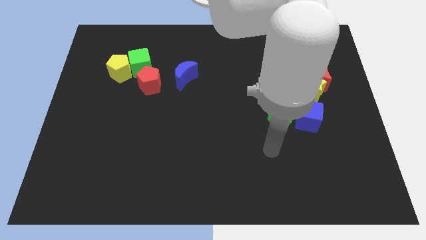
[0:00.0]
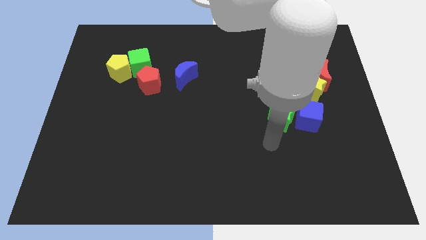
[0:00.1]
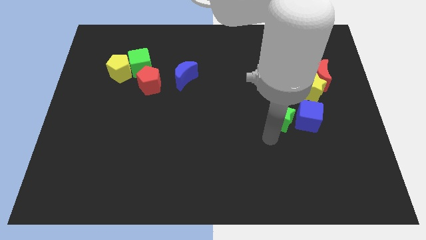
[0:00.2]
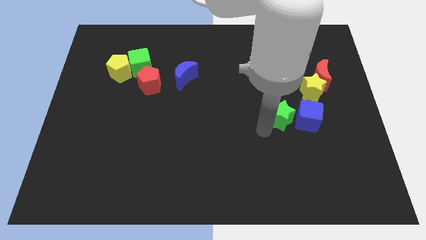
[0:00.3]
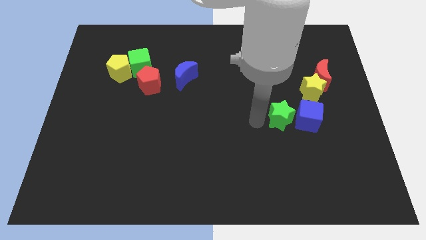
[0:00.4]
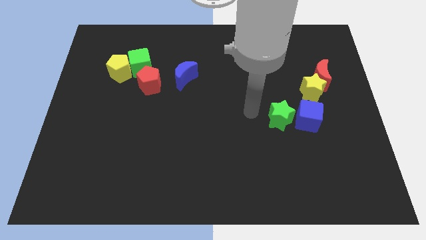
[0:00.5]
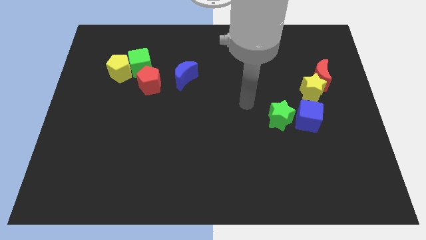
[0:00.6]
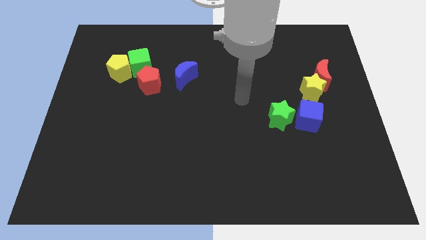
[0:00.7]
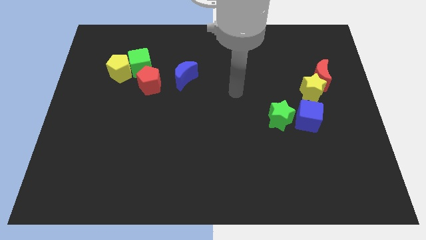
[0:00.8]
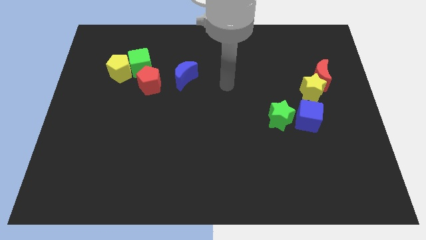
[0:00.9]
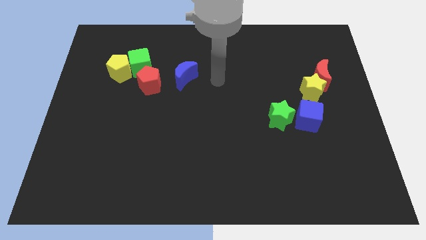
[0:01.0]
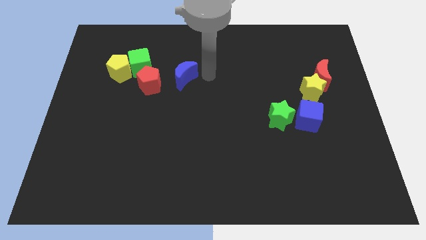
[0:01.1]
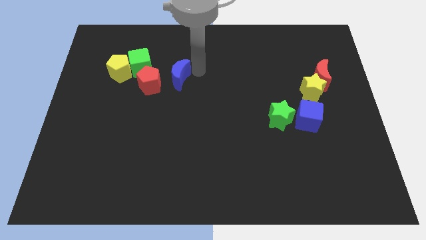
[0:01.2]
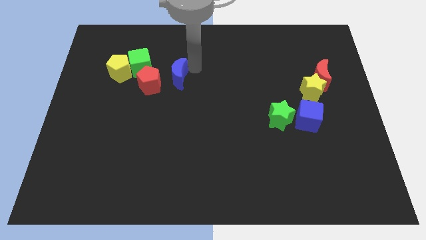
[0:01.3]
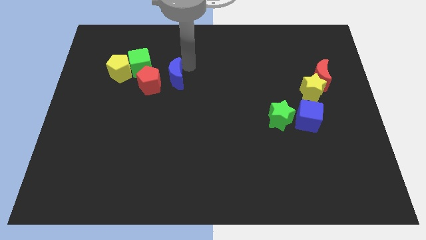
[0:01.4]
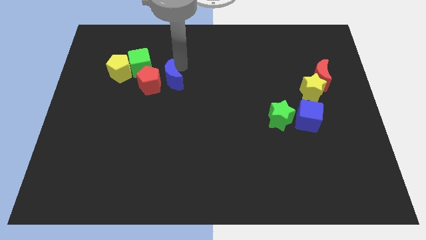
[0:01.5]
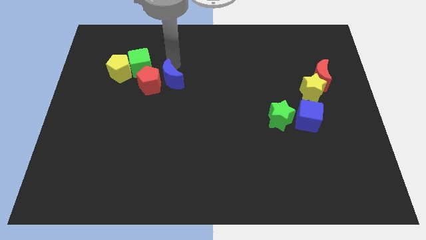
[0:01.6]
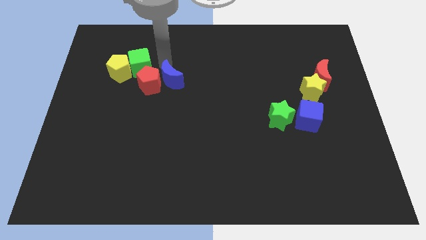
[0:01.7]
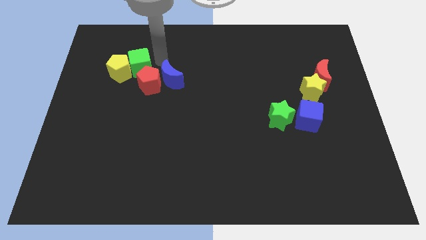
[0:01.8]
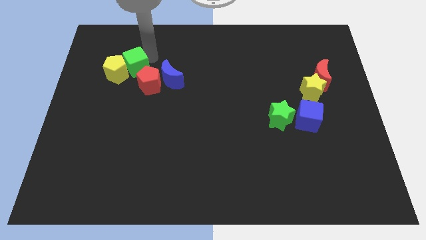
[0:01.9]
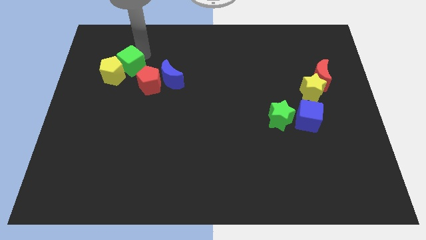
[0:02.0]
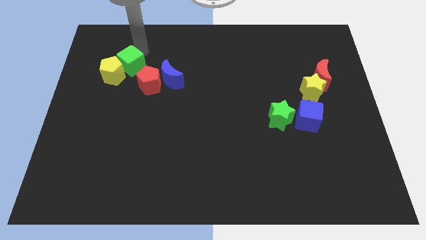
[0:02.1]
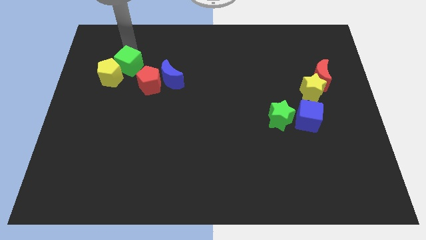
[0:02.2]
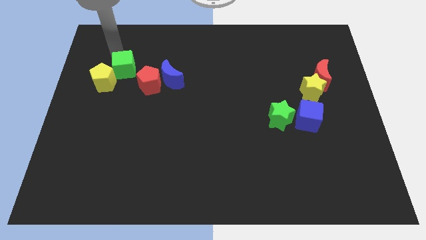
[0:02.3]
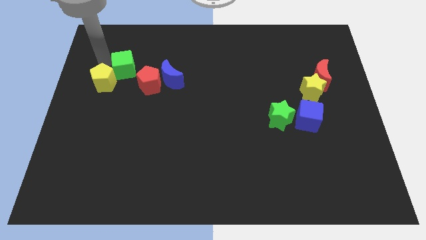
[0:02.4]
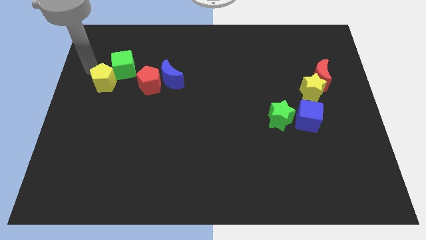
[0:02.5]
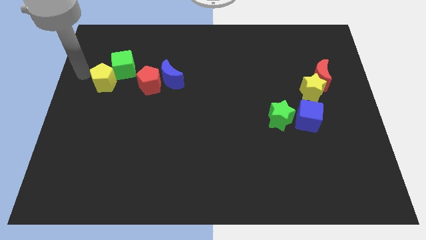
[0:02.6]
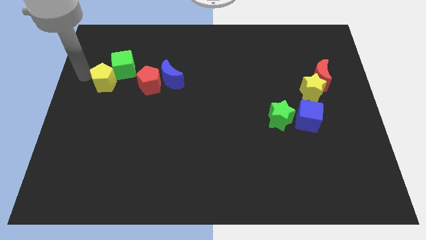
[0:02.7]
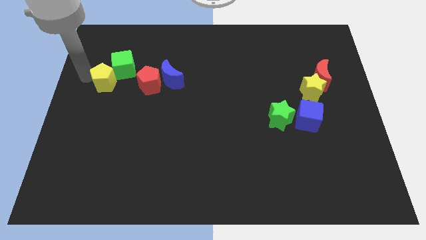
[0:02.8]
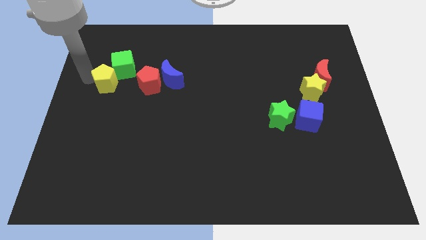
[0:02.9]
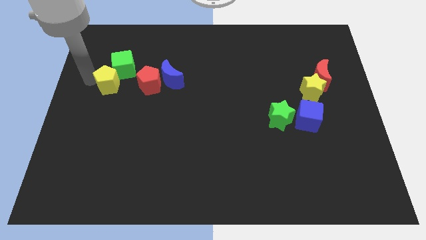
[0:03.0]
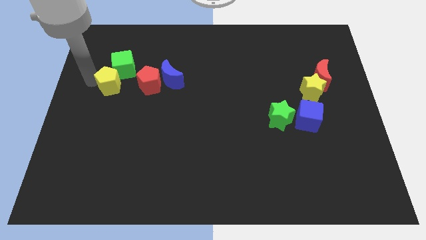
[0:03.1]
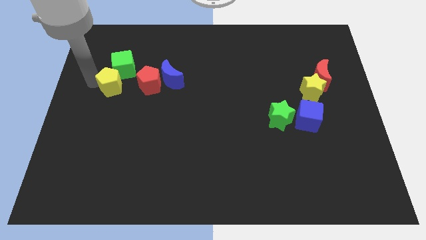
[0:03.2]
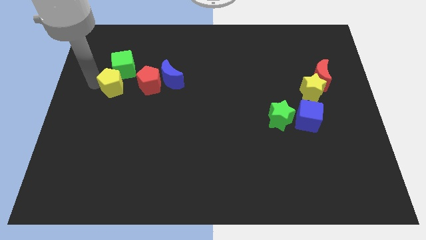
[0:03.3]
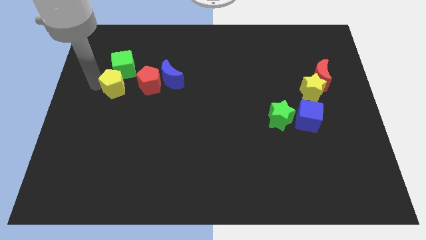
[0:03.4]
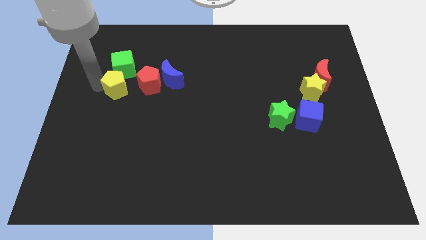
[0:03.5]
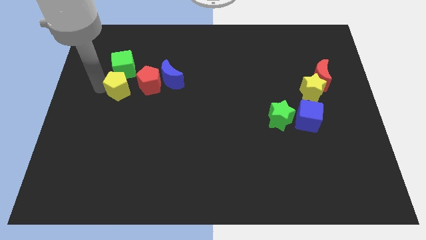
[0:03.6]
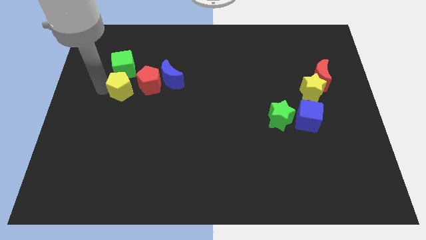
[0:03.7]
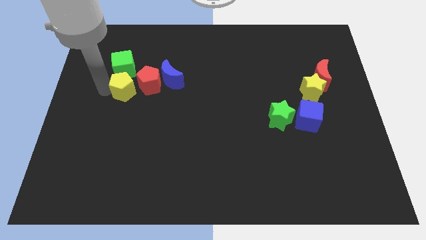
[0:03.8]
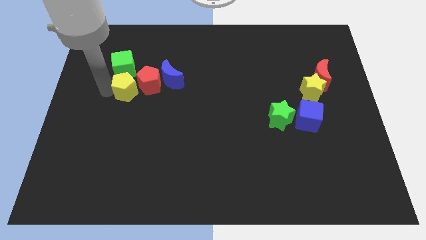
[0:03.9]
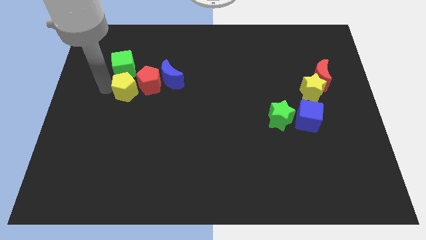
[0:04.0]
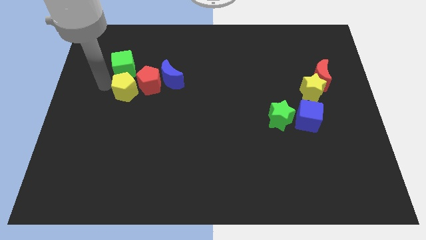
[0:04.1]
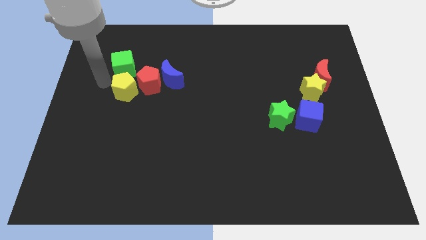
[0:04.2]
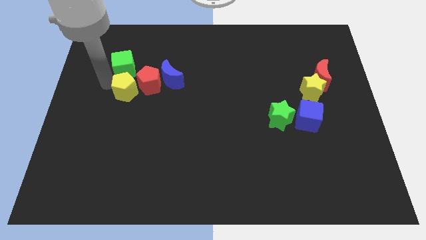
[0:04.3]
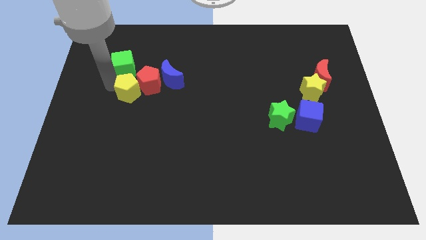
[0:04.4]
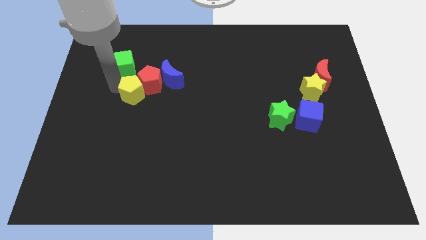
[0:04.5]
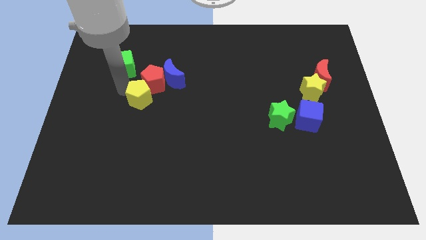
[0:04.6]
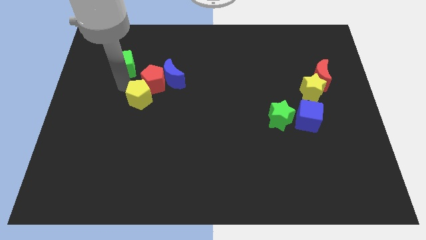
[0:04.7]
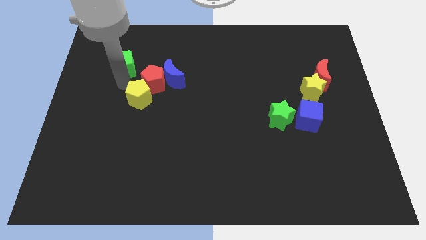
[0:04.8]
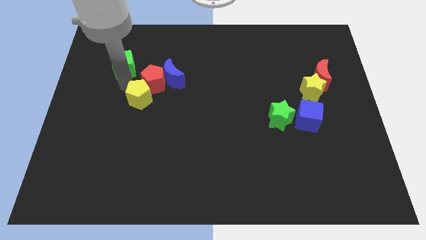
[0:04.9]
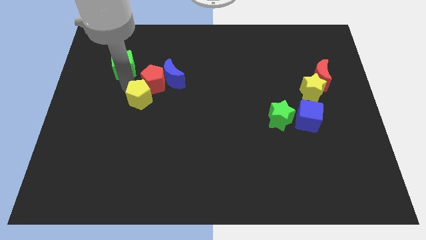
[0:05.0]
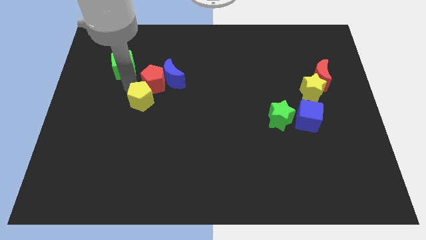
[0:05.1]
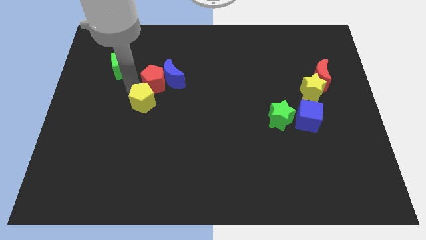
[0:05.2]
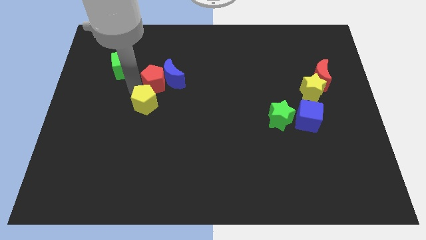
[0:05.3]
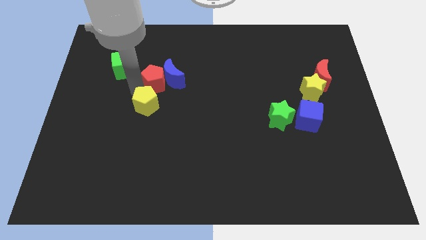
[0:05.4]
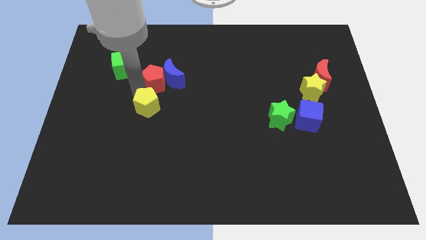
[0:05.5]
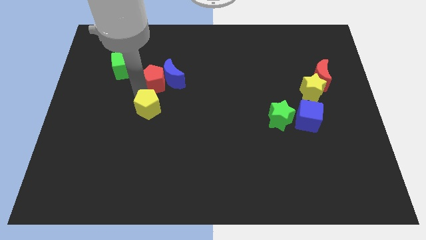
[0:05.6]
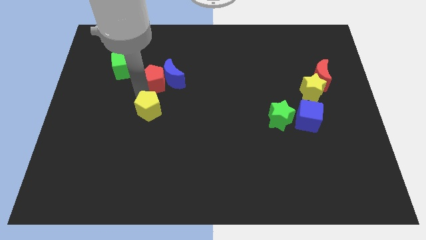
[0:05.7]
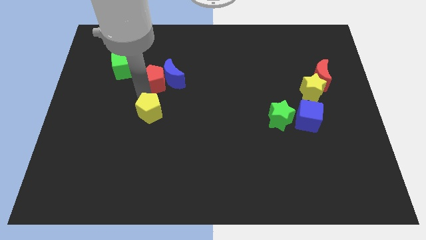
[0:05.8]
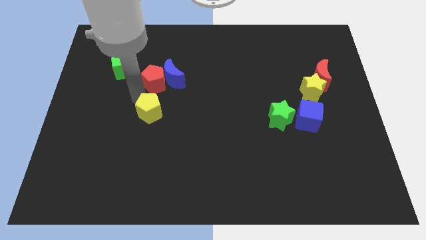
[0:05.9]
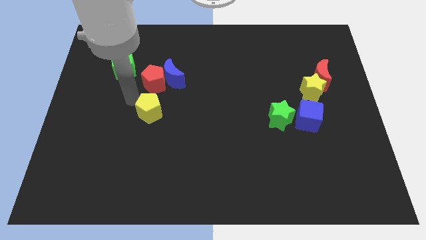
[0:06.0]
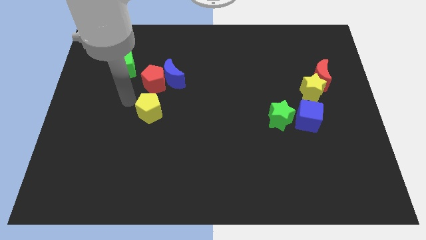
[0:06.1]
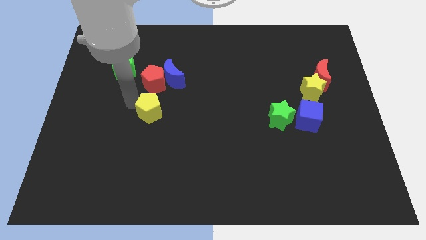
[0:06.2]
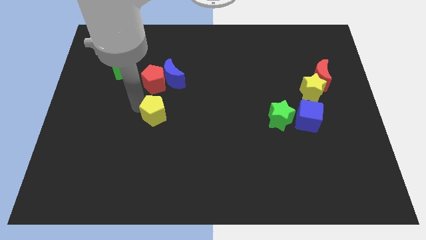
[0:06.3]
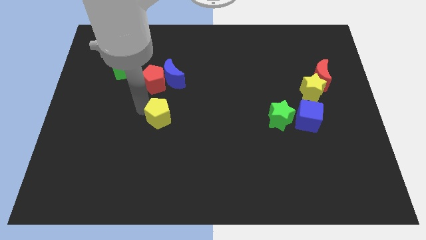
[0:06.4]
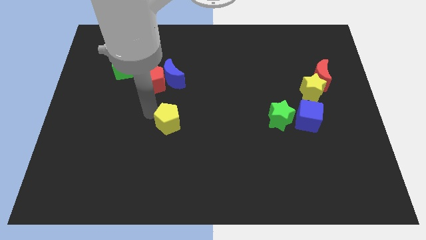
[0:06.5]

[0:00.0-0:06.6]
push the yellow pentagon down and then right

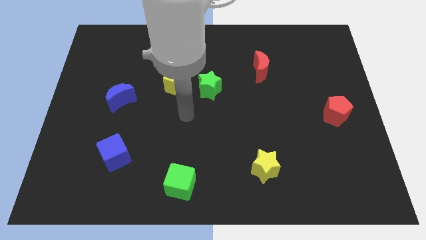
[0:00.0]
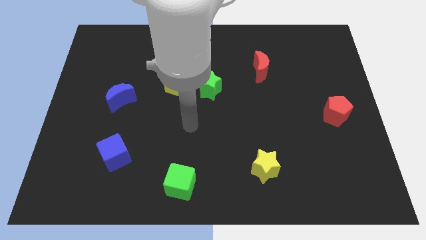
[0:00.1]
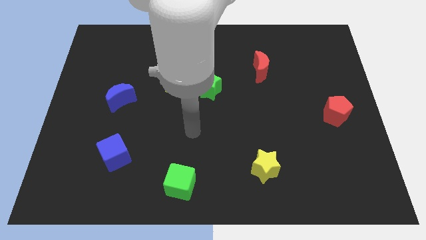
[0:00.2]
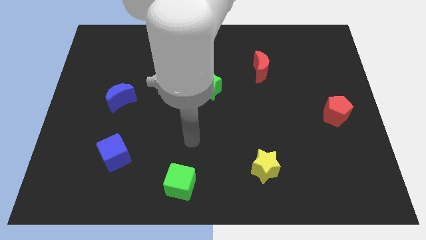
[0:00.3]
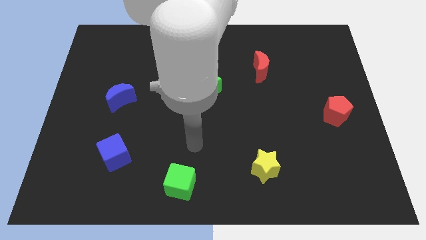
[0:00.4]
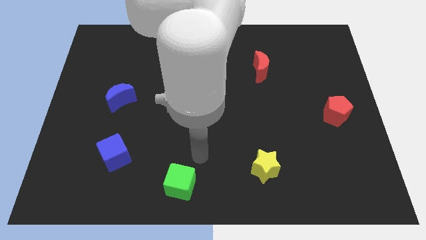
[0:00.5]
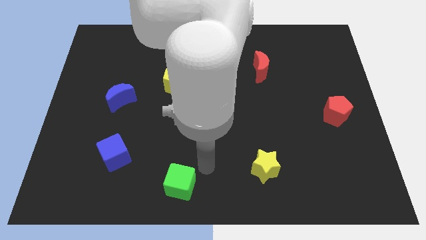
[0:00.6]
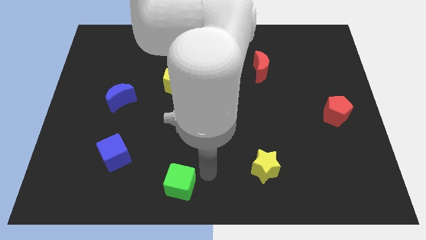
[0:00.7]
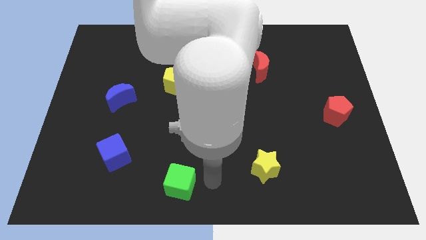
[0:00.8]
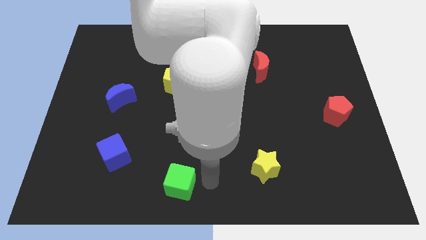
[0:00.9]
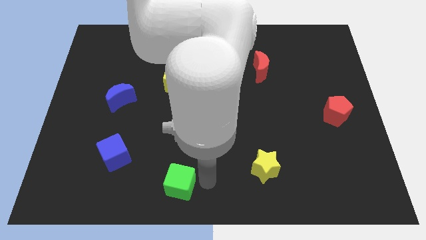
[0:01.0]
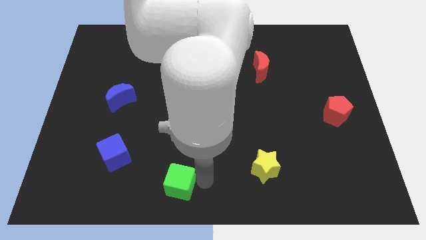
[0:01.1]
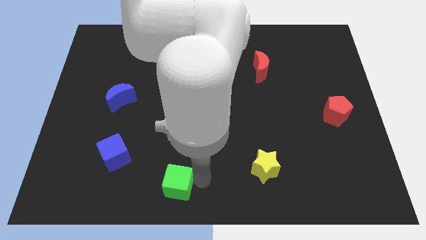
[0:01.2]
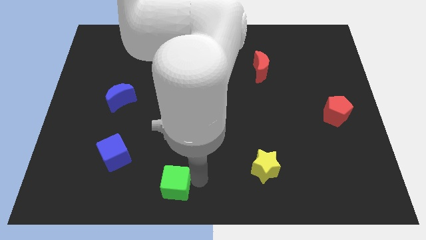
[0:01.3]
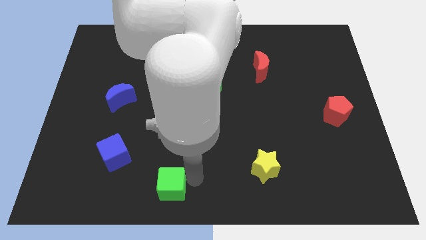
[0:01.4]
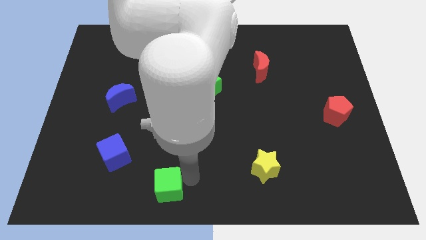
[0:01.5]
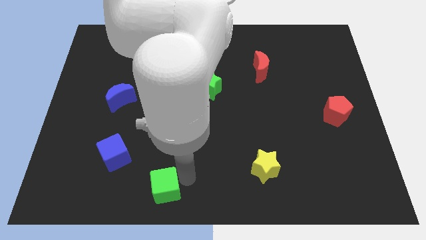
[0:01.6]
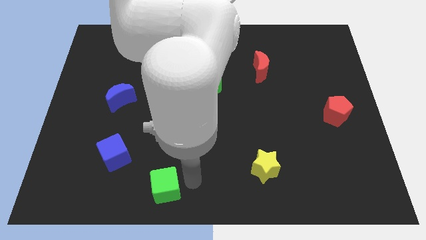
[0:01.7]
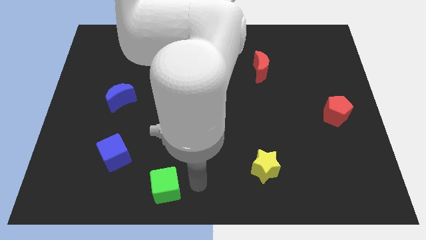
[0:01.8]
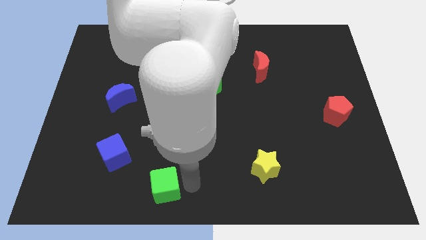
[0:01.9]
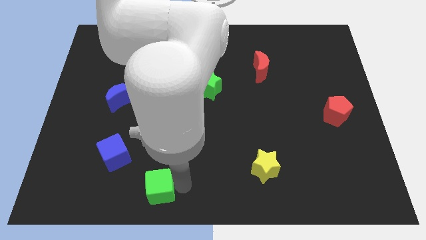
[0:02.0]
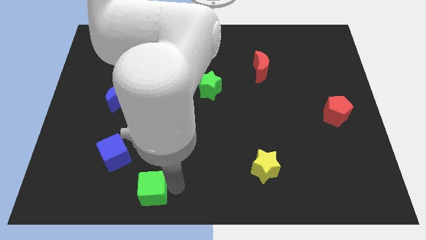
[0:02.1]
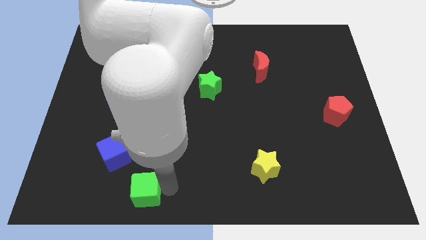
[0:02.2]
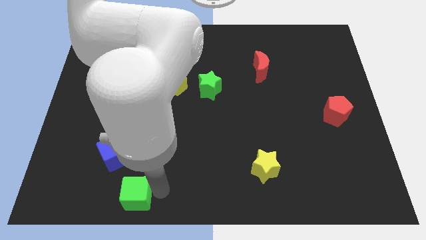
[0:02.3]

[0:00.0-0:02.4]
slightly move the green cube left
